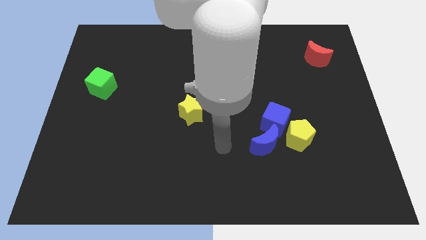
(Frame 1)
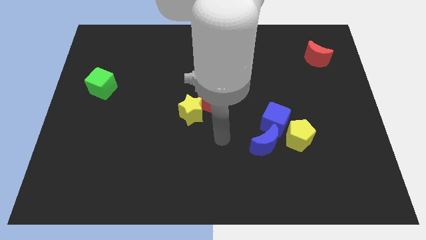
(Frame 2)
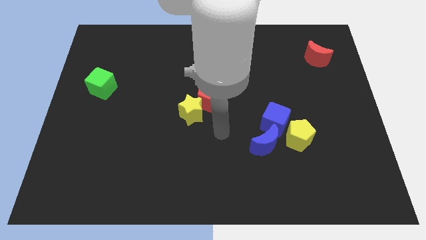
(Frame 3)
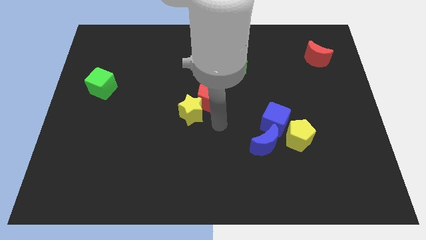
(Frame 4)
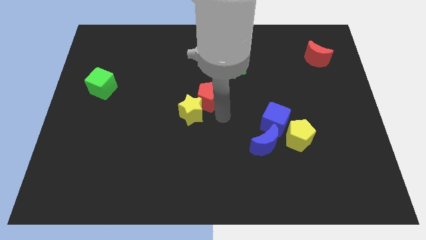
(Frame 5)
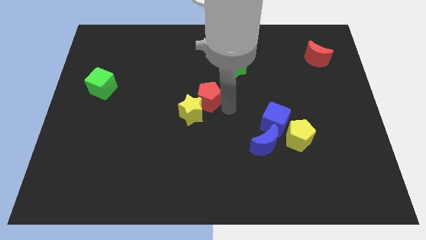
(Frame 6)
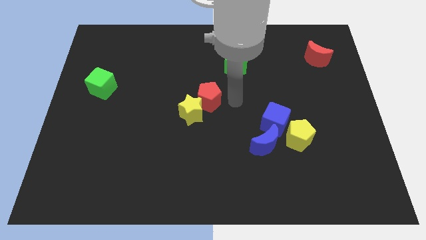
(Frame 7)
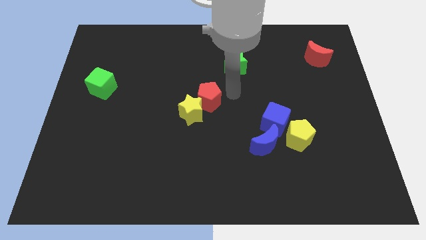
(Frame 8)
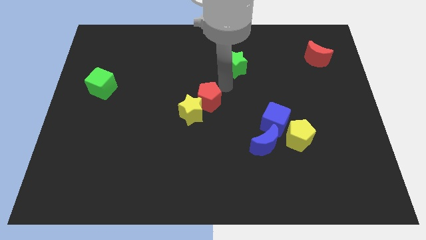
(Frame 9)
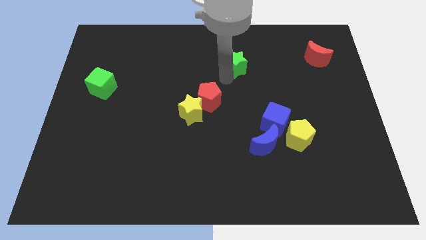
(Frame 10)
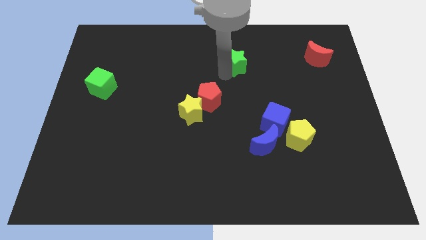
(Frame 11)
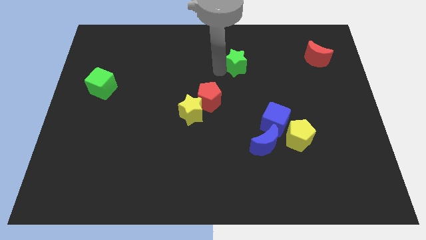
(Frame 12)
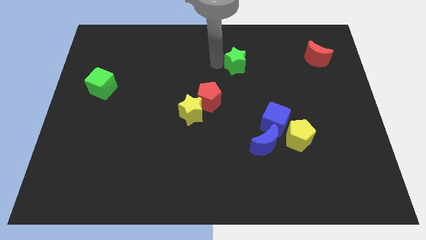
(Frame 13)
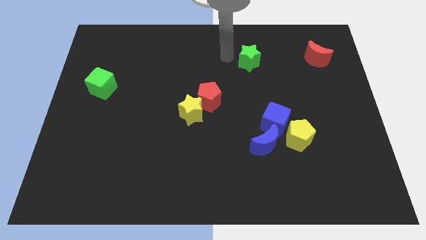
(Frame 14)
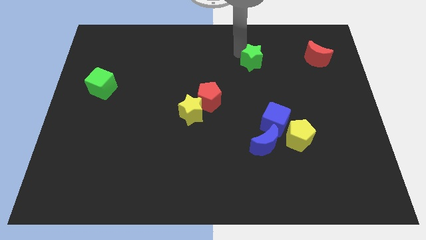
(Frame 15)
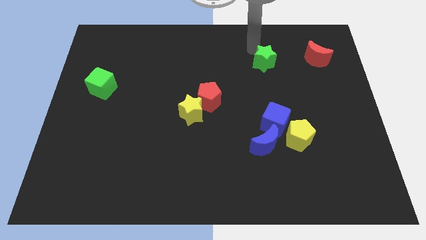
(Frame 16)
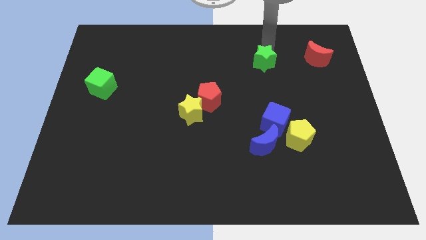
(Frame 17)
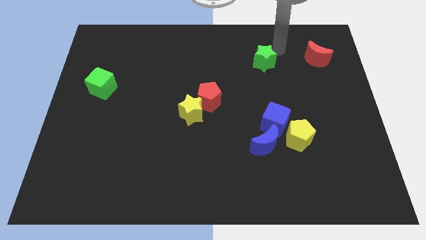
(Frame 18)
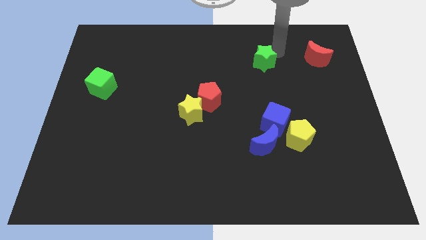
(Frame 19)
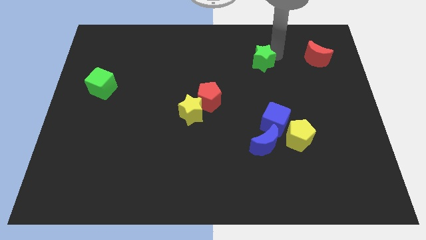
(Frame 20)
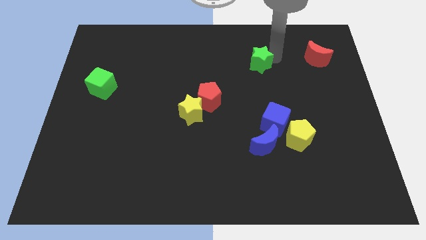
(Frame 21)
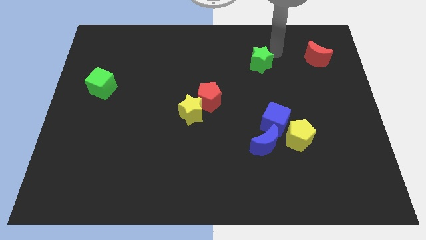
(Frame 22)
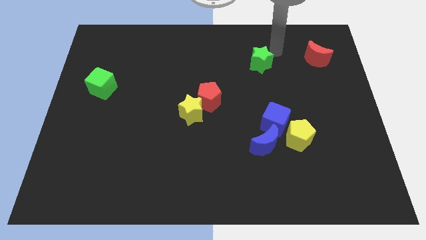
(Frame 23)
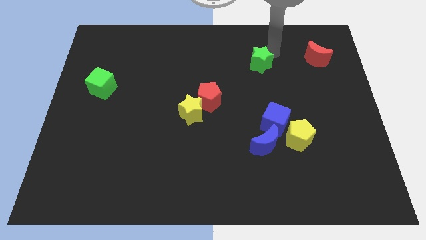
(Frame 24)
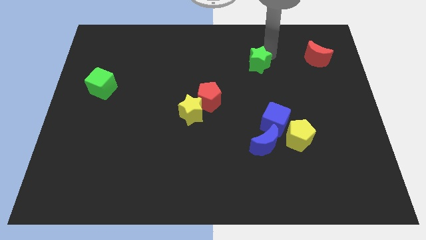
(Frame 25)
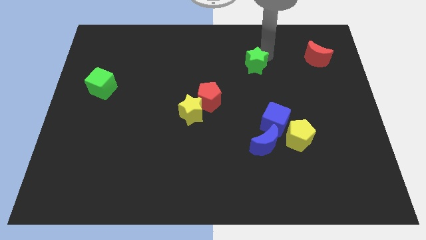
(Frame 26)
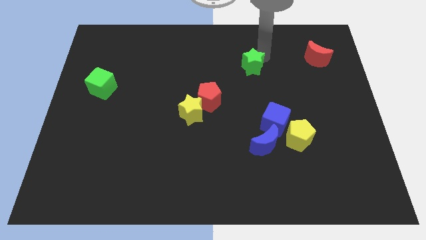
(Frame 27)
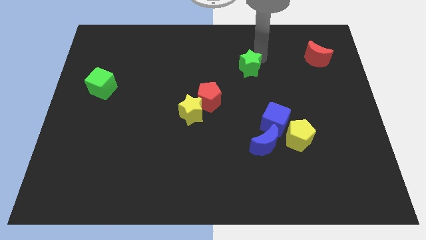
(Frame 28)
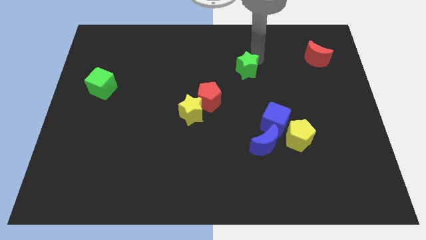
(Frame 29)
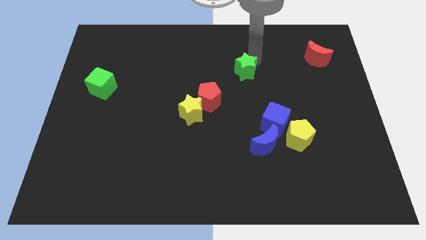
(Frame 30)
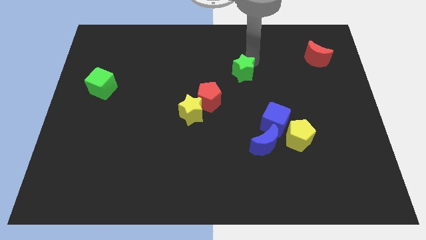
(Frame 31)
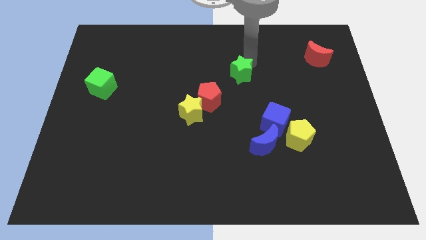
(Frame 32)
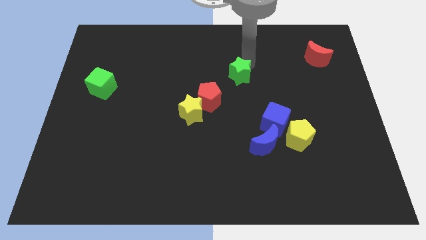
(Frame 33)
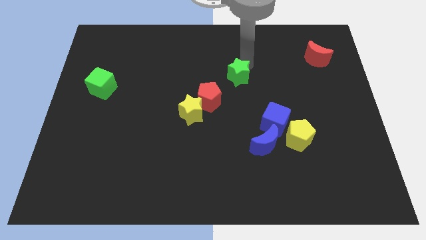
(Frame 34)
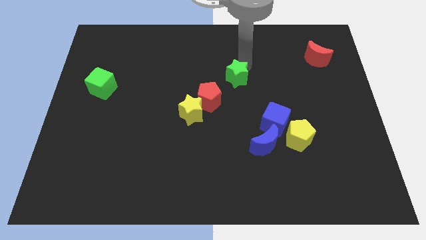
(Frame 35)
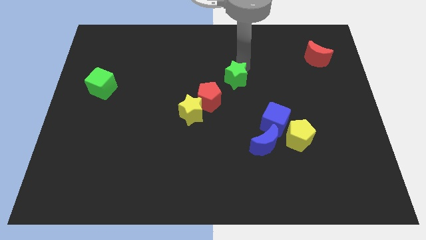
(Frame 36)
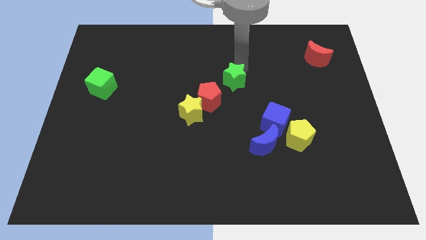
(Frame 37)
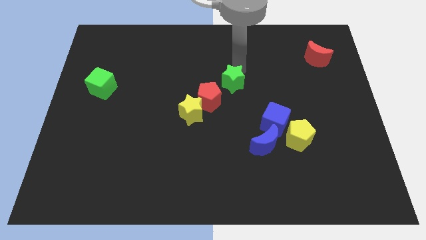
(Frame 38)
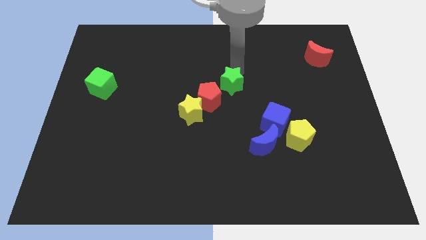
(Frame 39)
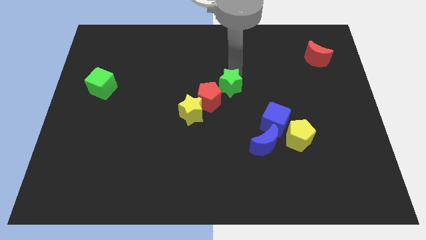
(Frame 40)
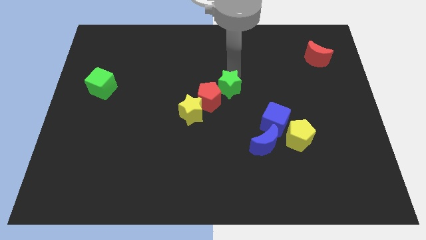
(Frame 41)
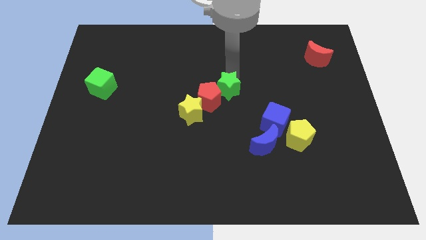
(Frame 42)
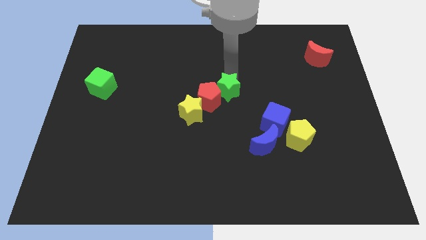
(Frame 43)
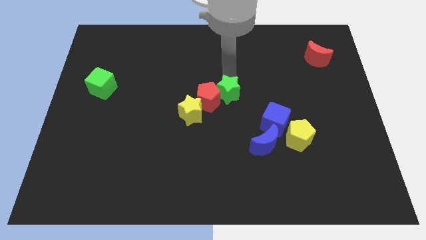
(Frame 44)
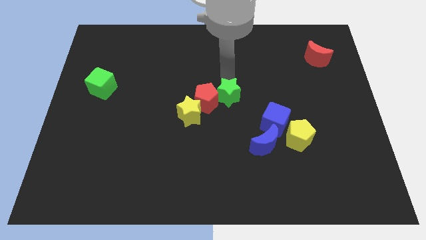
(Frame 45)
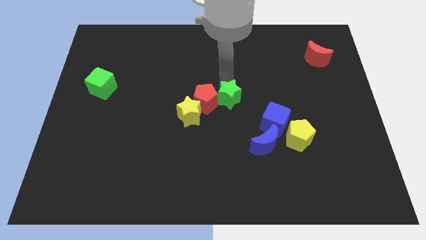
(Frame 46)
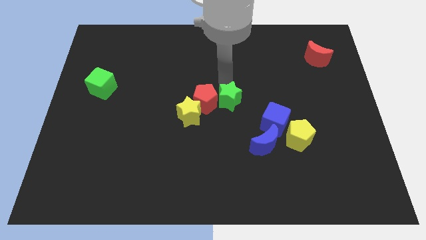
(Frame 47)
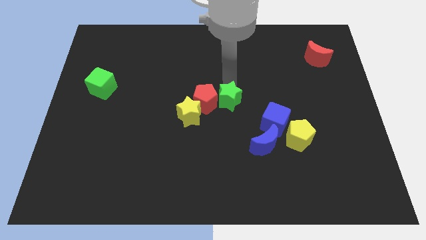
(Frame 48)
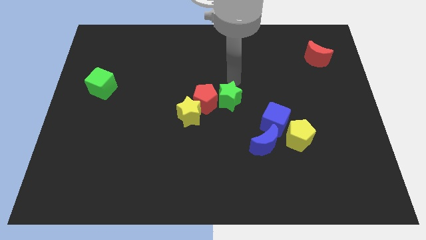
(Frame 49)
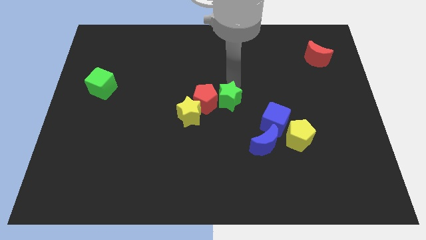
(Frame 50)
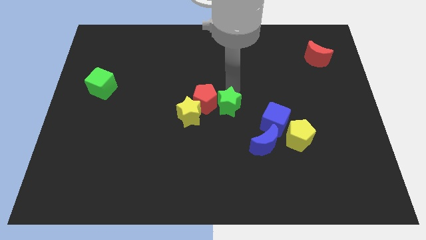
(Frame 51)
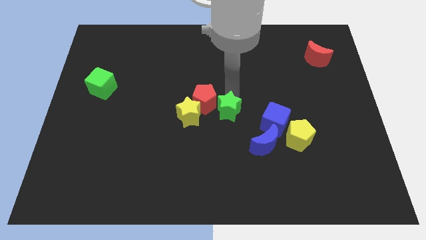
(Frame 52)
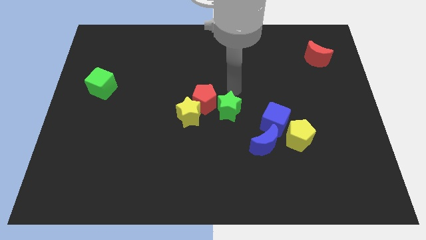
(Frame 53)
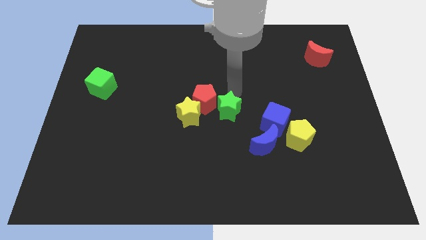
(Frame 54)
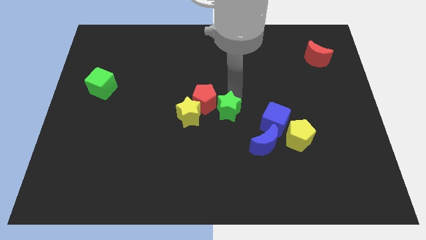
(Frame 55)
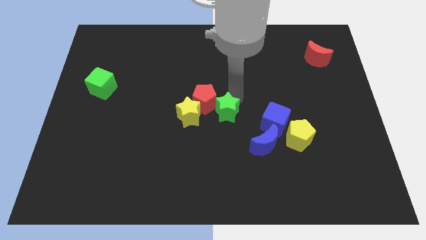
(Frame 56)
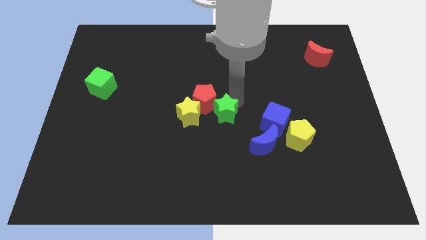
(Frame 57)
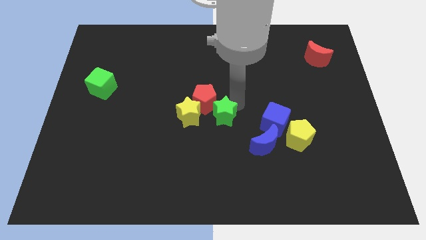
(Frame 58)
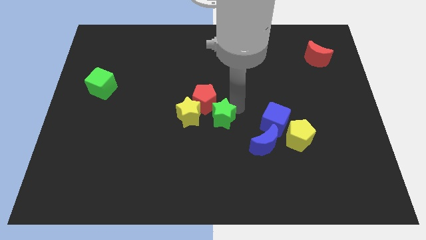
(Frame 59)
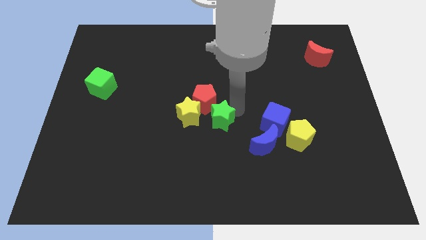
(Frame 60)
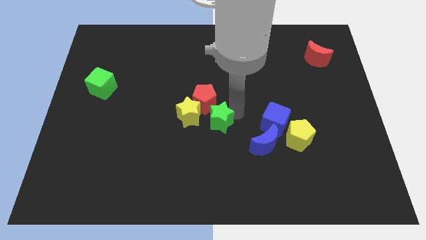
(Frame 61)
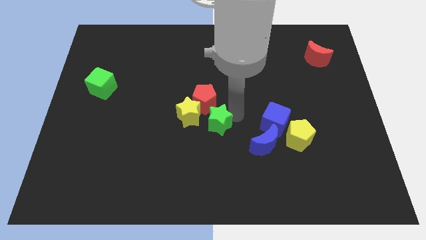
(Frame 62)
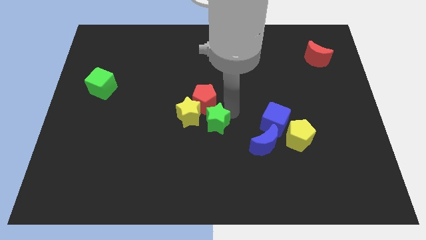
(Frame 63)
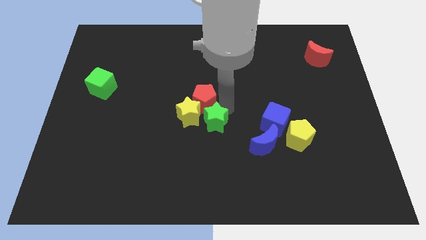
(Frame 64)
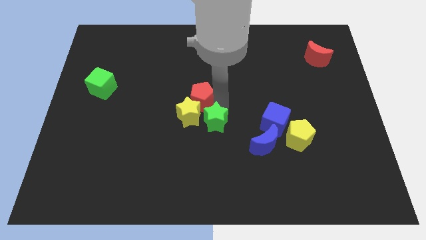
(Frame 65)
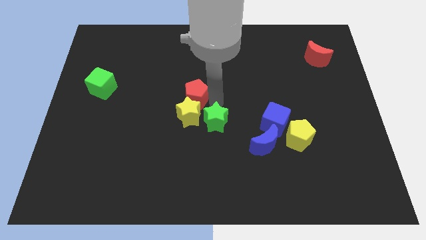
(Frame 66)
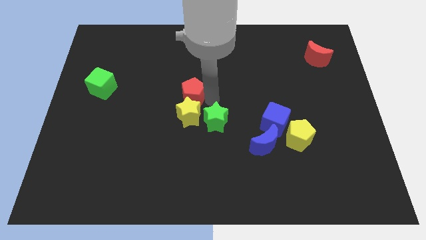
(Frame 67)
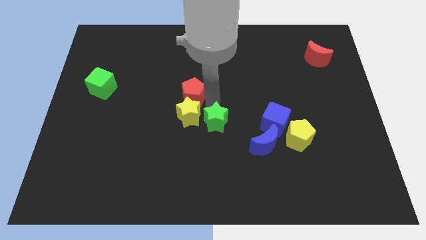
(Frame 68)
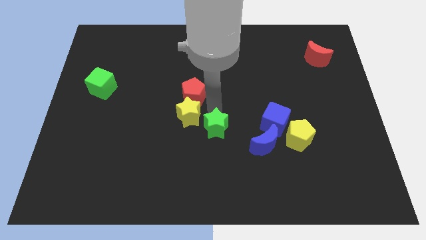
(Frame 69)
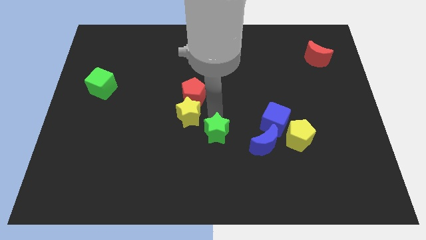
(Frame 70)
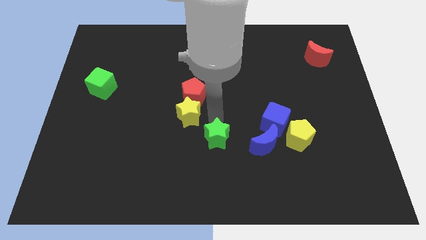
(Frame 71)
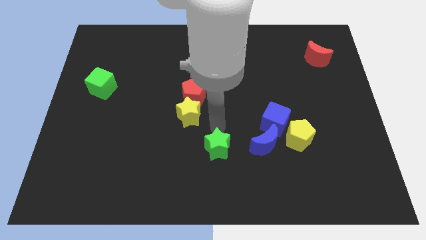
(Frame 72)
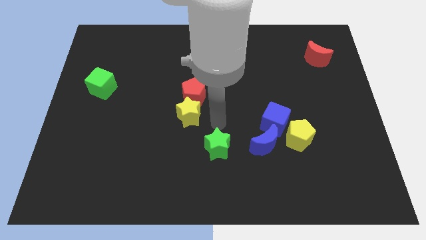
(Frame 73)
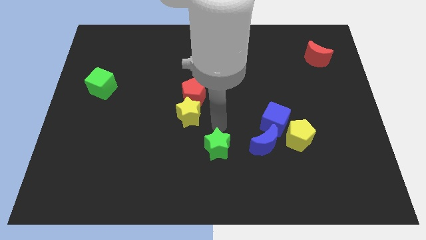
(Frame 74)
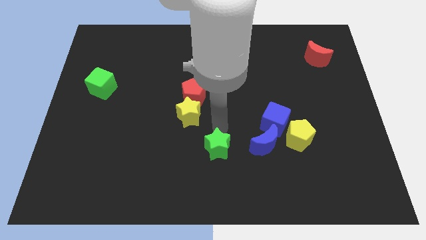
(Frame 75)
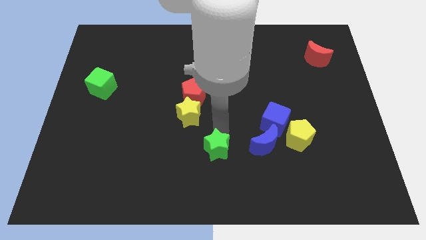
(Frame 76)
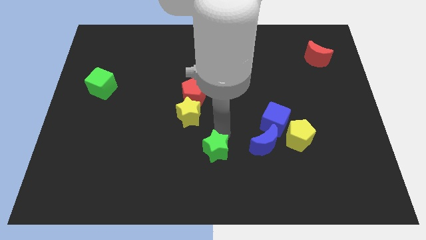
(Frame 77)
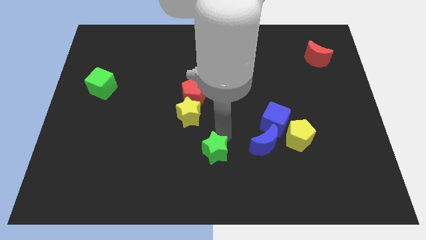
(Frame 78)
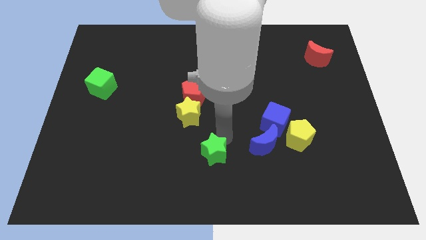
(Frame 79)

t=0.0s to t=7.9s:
move the green star to the bottom
